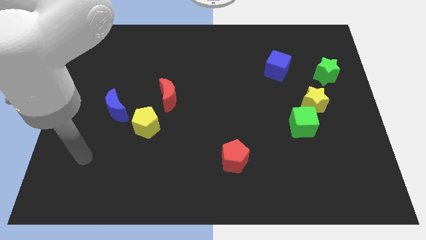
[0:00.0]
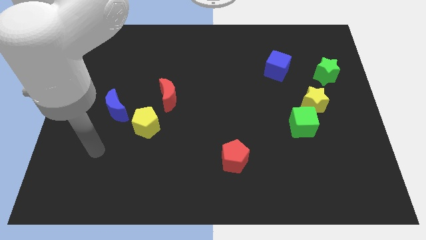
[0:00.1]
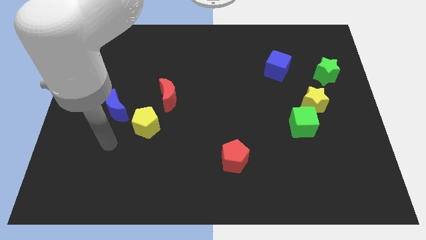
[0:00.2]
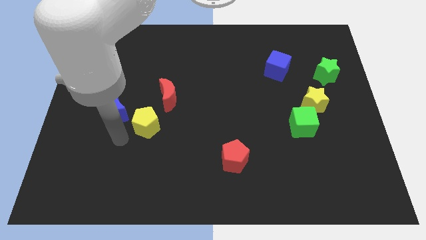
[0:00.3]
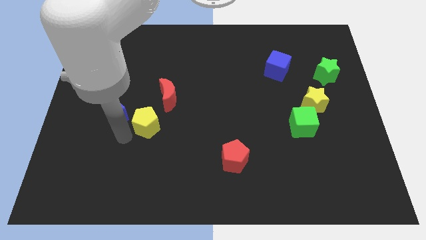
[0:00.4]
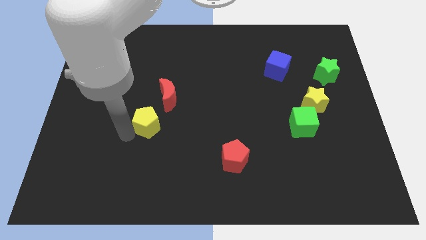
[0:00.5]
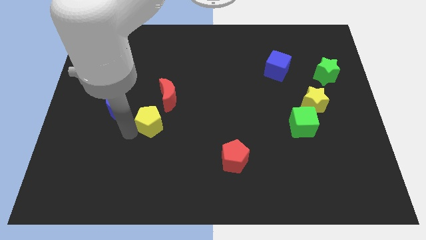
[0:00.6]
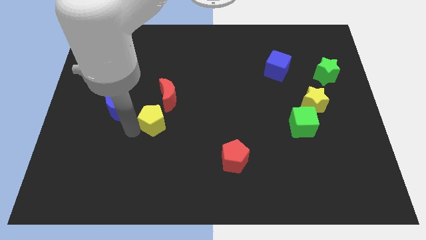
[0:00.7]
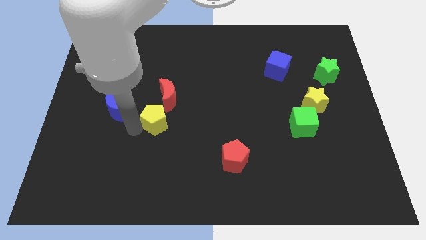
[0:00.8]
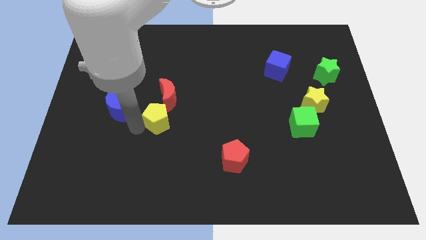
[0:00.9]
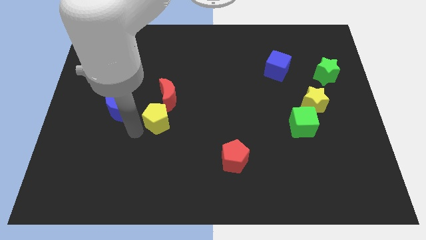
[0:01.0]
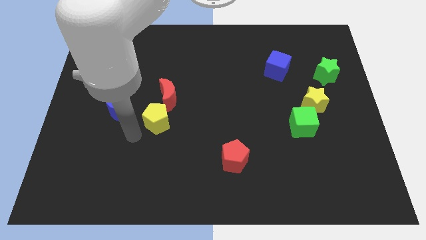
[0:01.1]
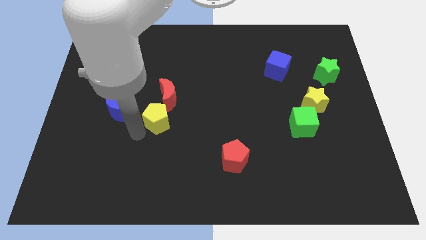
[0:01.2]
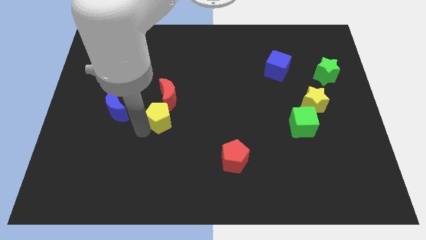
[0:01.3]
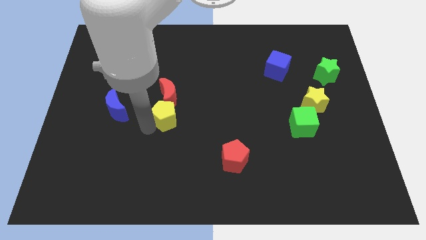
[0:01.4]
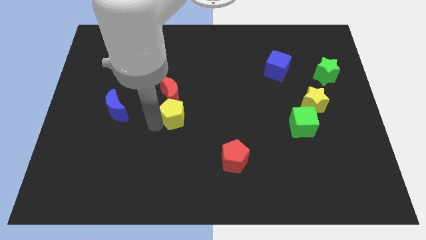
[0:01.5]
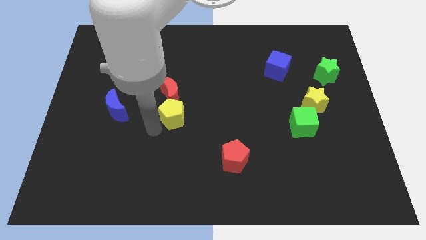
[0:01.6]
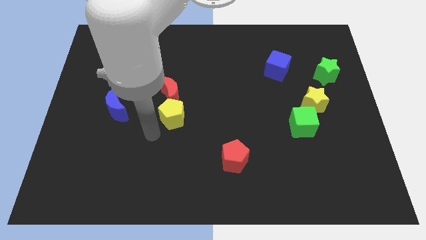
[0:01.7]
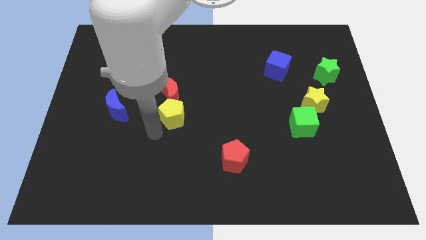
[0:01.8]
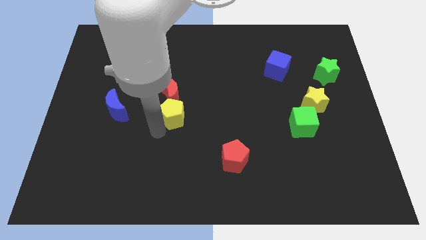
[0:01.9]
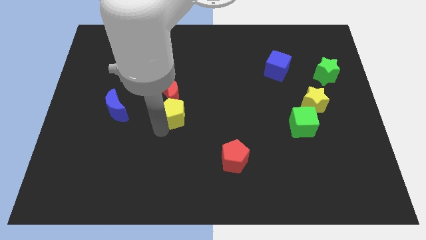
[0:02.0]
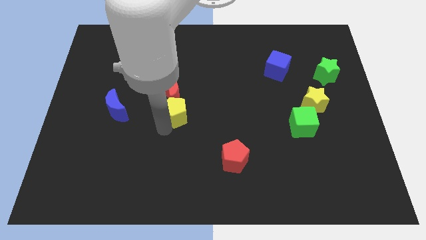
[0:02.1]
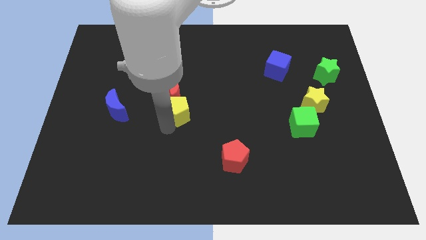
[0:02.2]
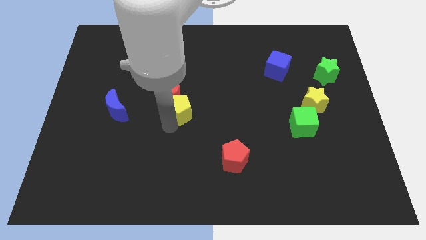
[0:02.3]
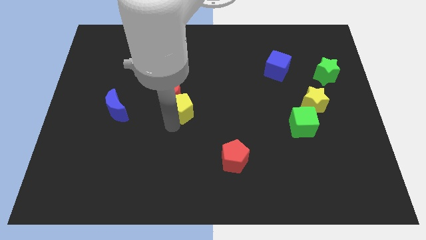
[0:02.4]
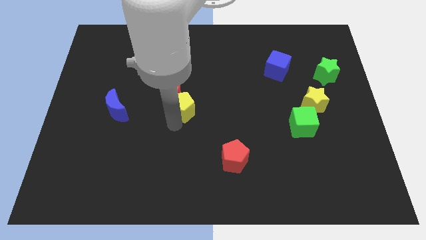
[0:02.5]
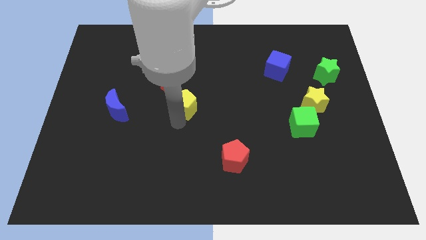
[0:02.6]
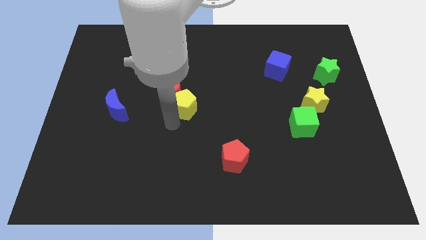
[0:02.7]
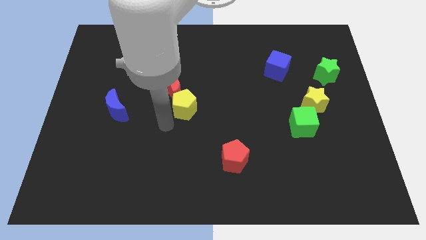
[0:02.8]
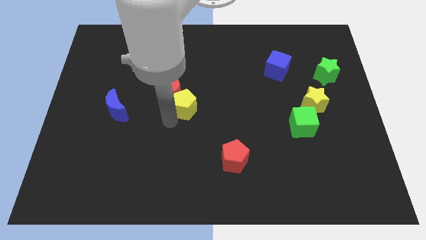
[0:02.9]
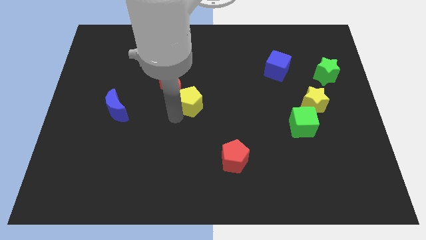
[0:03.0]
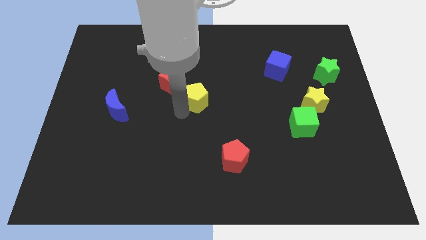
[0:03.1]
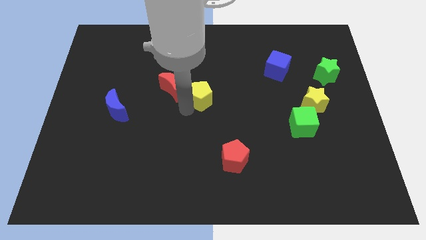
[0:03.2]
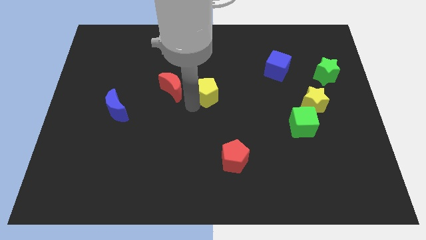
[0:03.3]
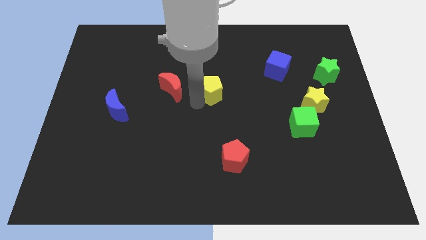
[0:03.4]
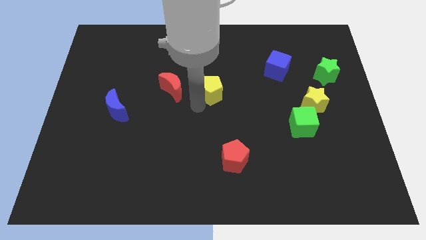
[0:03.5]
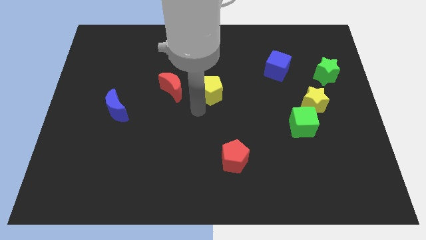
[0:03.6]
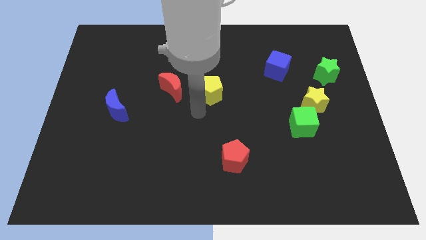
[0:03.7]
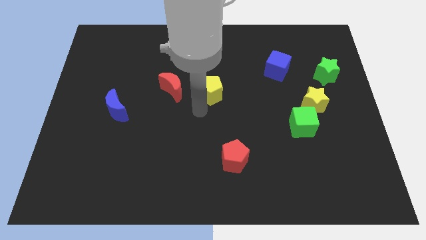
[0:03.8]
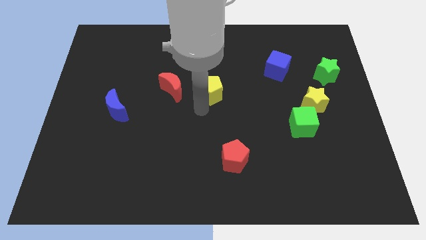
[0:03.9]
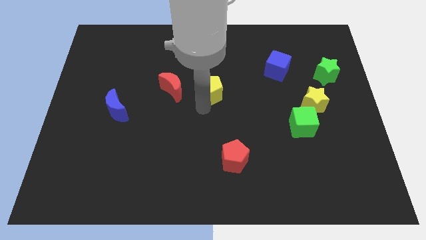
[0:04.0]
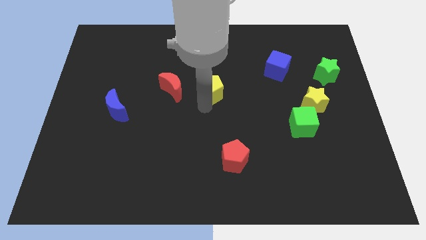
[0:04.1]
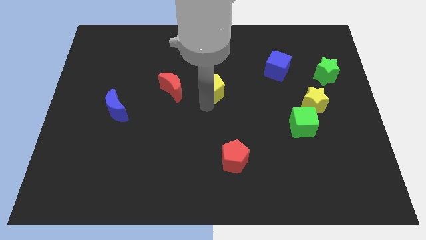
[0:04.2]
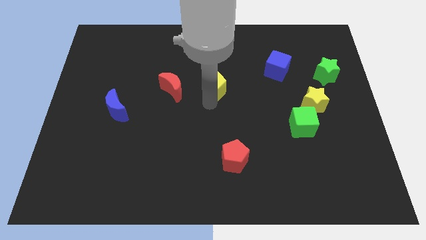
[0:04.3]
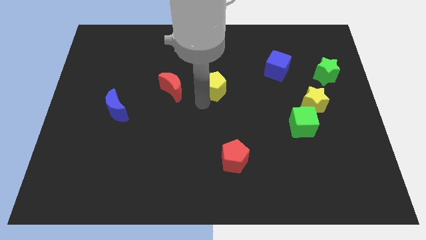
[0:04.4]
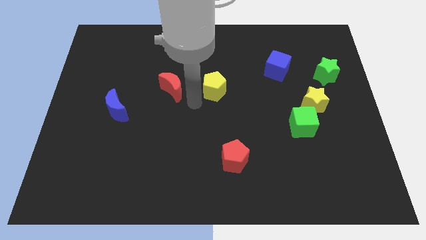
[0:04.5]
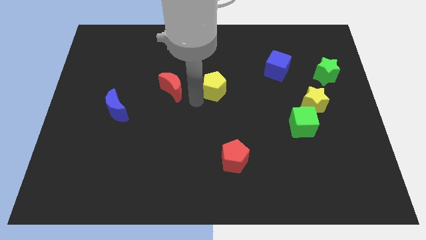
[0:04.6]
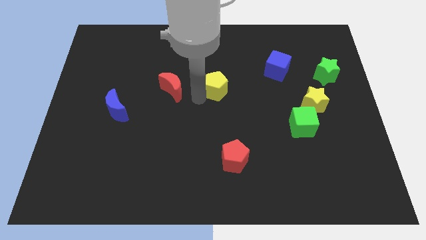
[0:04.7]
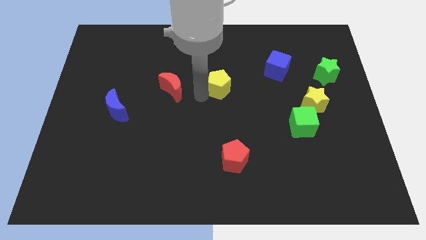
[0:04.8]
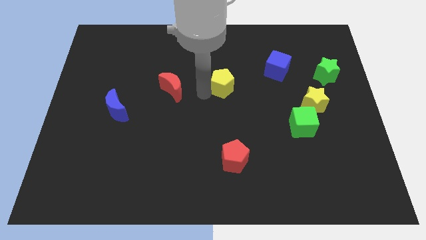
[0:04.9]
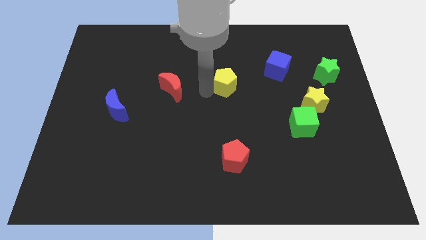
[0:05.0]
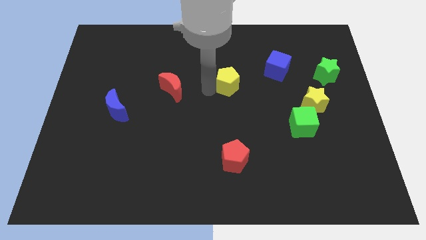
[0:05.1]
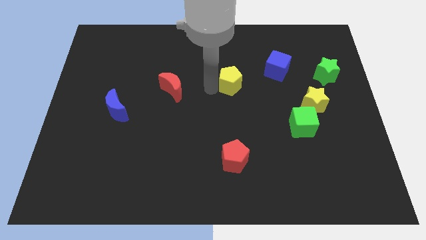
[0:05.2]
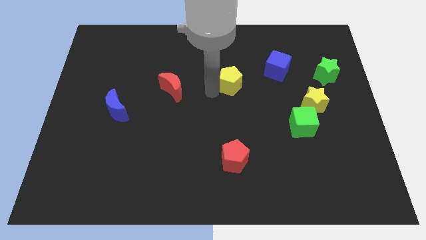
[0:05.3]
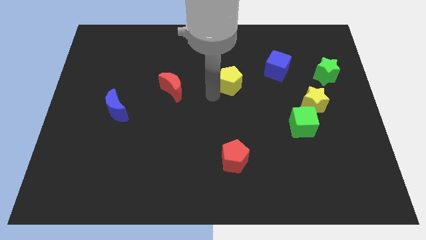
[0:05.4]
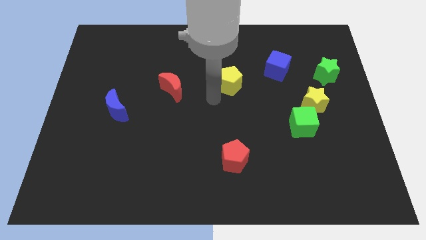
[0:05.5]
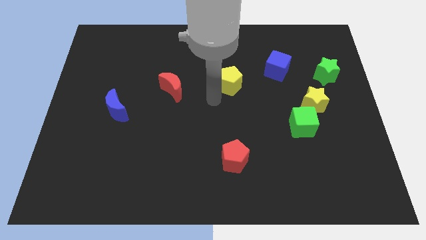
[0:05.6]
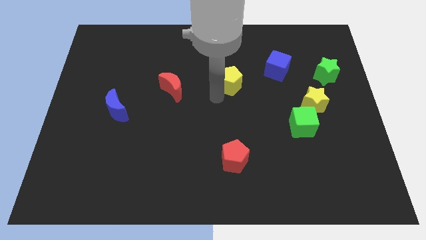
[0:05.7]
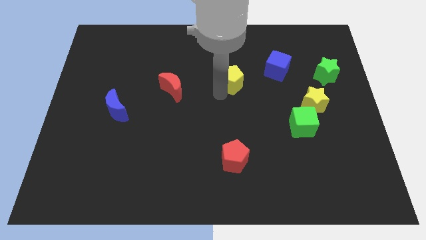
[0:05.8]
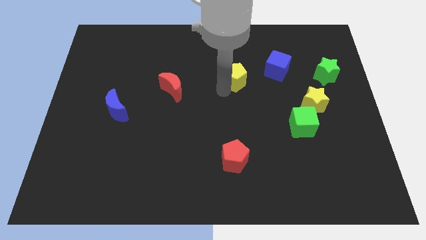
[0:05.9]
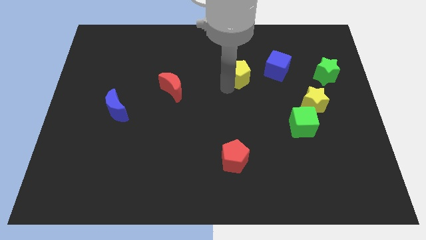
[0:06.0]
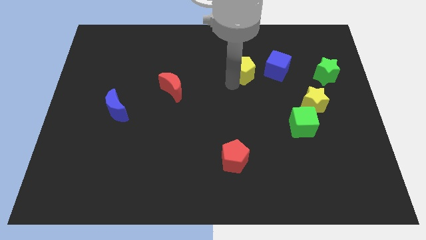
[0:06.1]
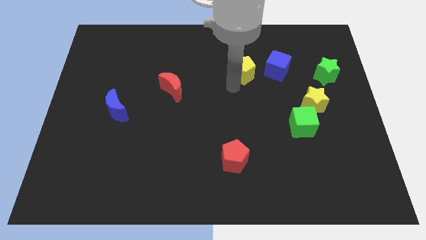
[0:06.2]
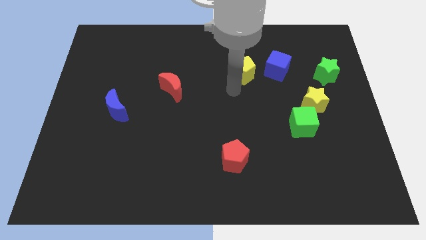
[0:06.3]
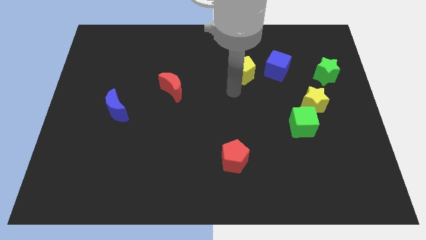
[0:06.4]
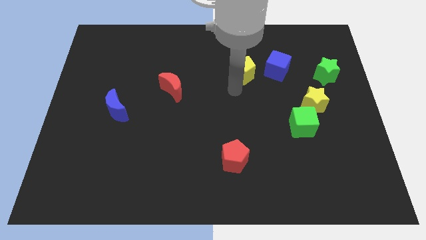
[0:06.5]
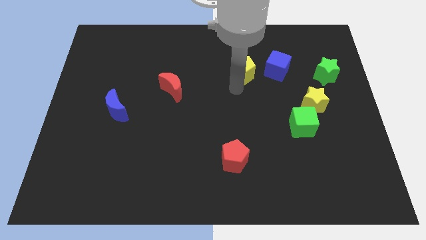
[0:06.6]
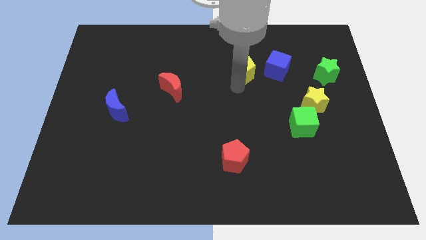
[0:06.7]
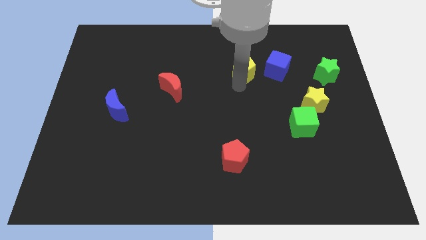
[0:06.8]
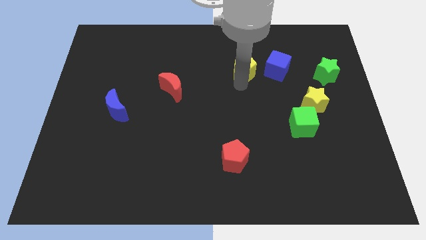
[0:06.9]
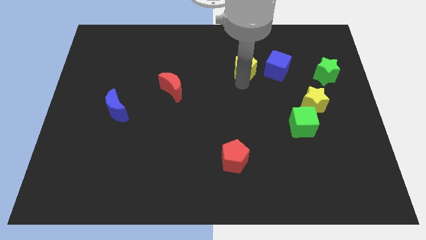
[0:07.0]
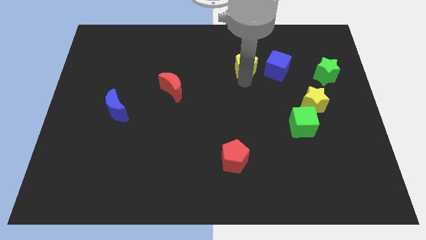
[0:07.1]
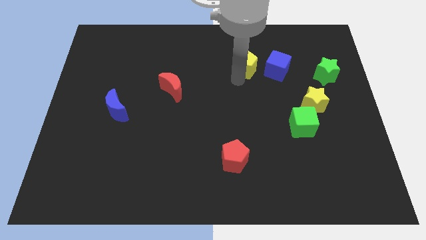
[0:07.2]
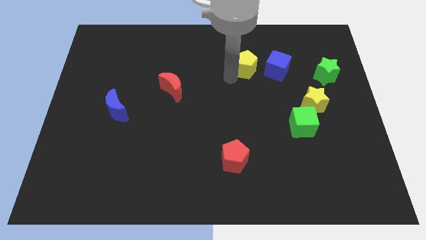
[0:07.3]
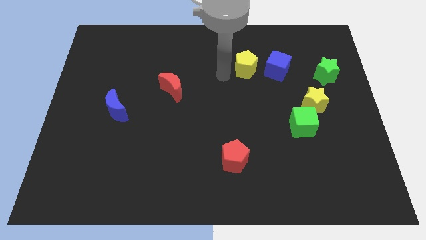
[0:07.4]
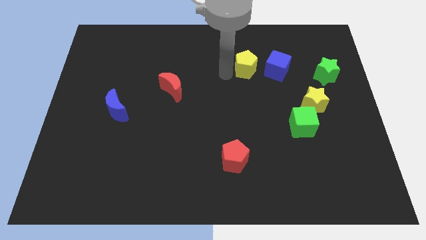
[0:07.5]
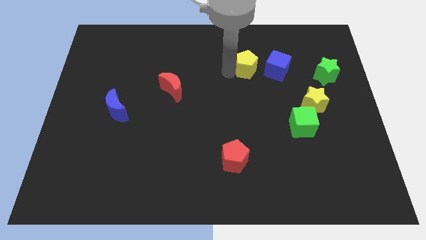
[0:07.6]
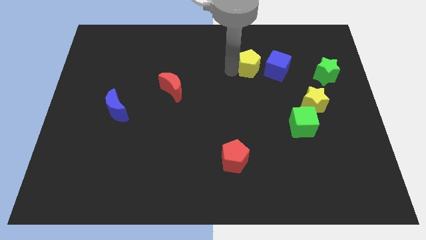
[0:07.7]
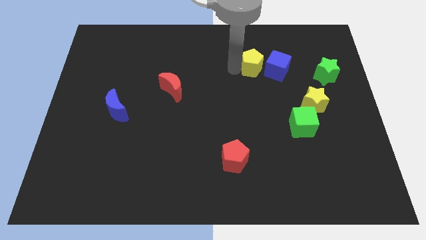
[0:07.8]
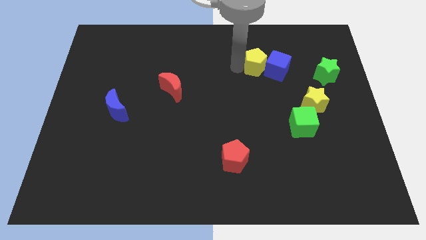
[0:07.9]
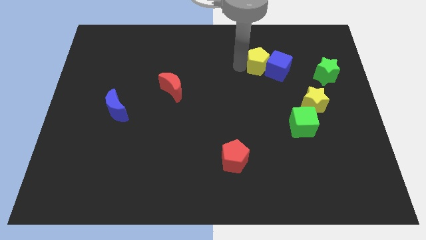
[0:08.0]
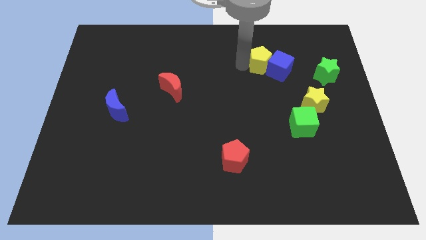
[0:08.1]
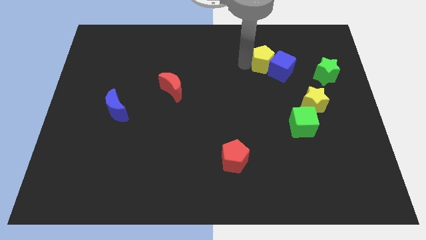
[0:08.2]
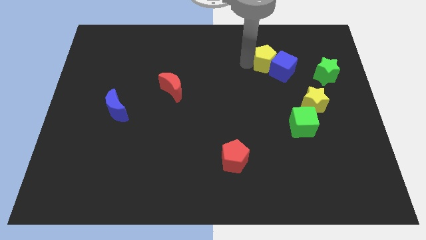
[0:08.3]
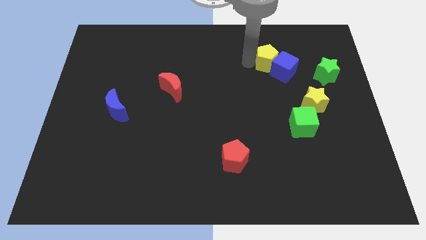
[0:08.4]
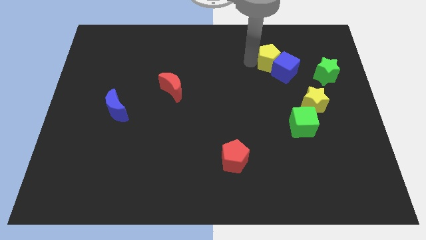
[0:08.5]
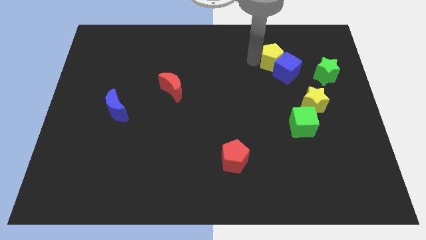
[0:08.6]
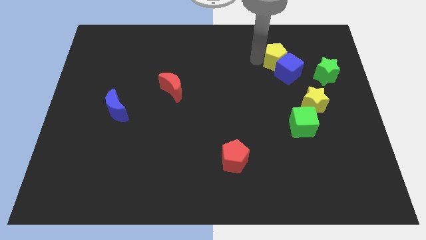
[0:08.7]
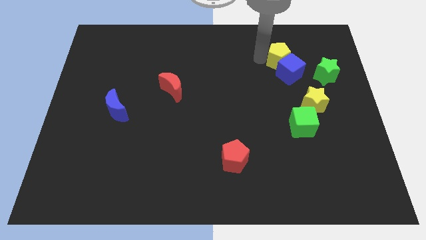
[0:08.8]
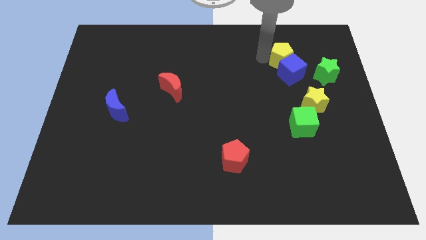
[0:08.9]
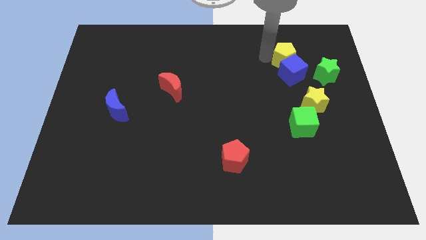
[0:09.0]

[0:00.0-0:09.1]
push the yellow pentagon diagonally up and to the right of the blue cube
